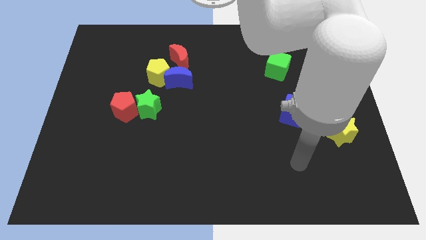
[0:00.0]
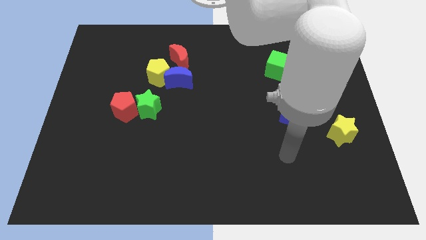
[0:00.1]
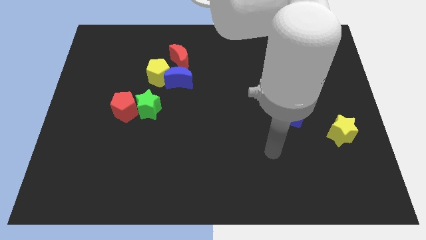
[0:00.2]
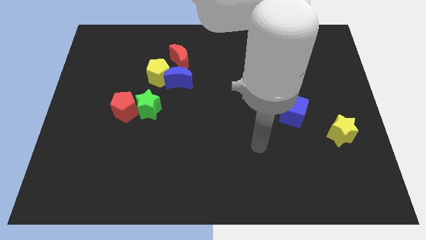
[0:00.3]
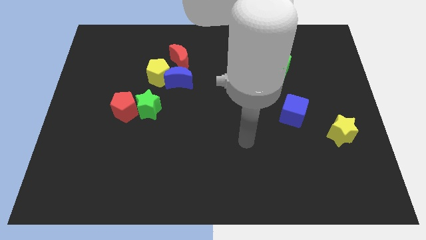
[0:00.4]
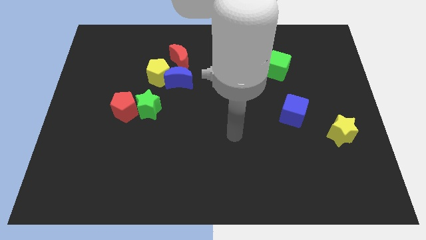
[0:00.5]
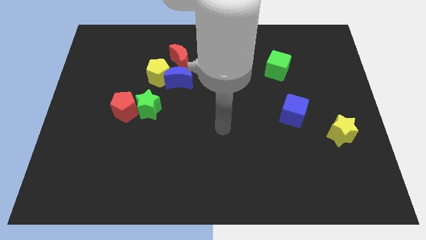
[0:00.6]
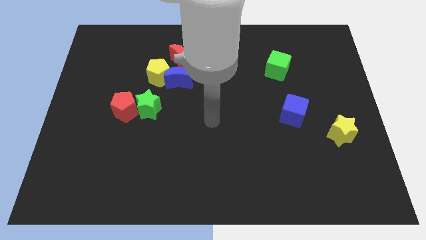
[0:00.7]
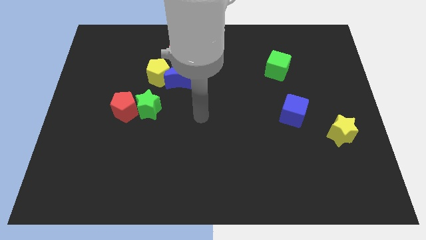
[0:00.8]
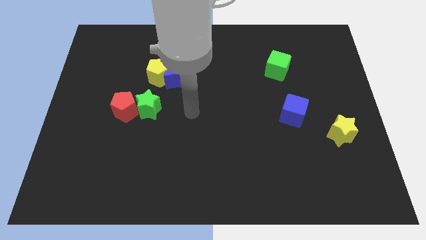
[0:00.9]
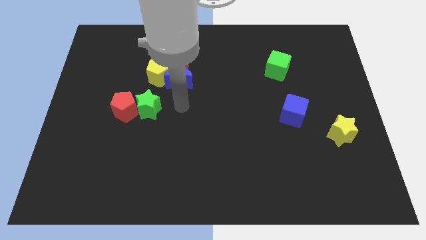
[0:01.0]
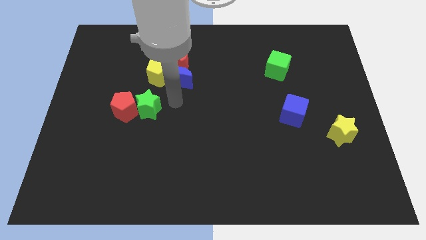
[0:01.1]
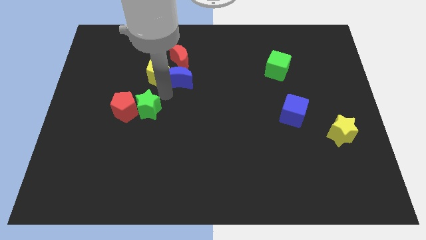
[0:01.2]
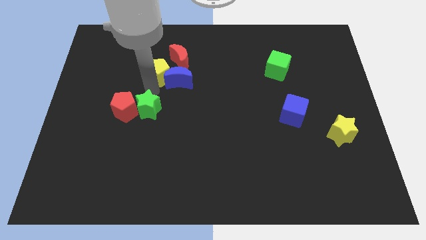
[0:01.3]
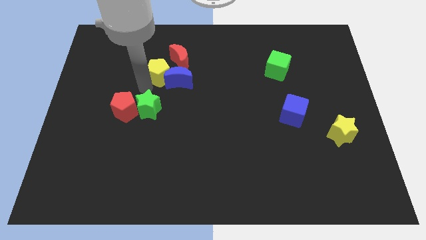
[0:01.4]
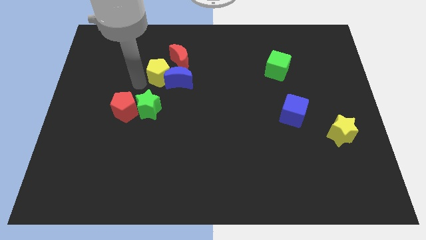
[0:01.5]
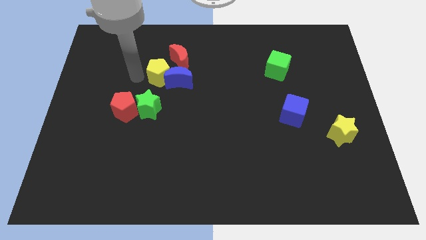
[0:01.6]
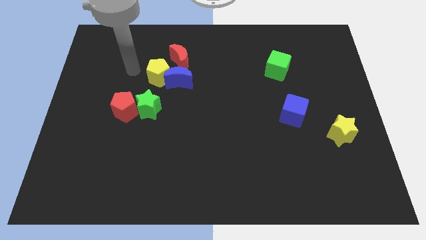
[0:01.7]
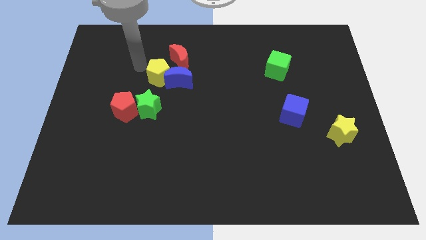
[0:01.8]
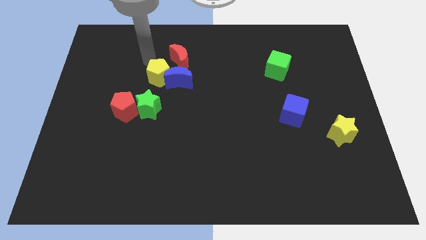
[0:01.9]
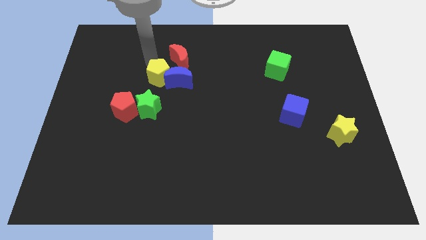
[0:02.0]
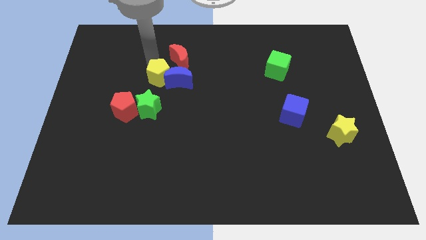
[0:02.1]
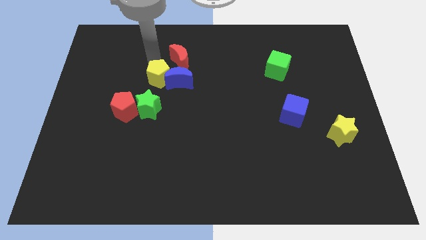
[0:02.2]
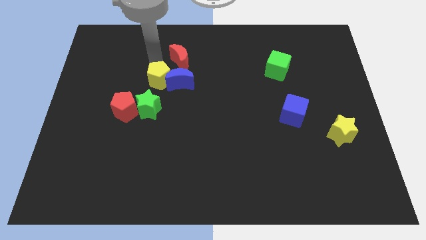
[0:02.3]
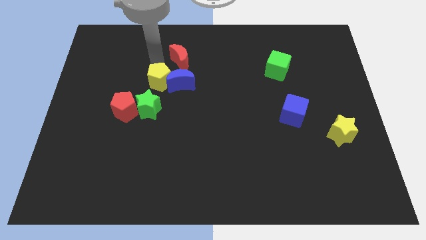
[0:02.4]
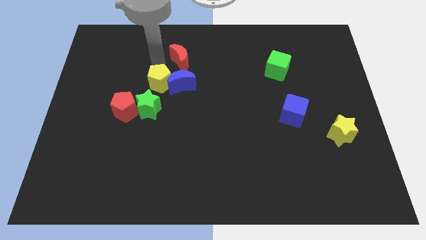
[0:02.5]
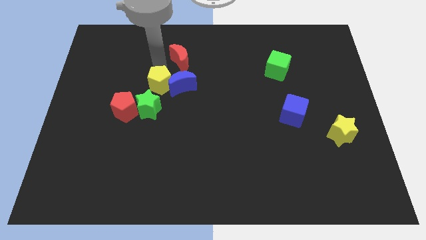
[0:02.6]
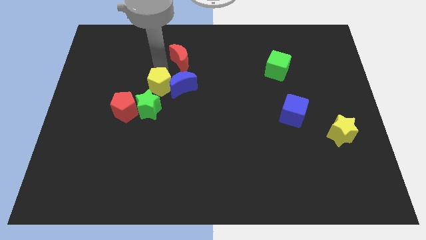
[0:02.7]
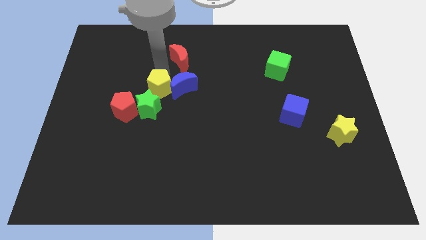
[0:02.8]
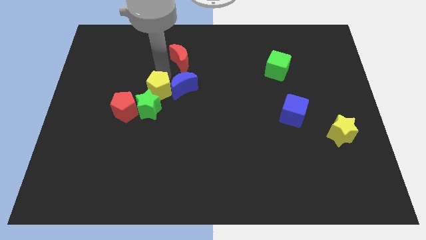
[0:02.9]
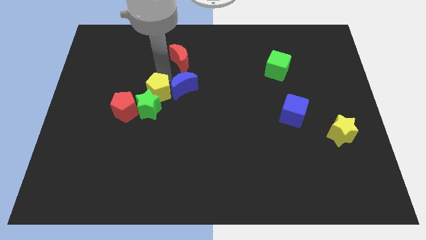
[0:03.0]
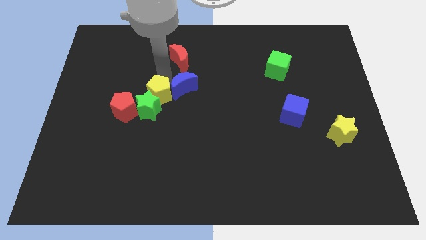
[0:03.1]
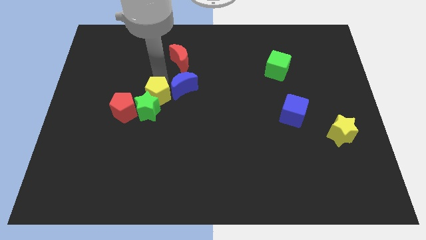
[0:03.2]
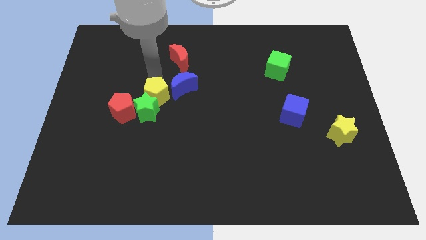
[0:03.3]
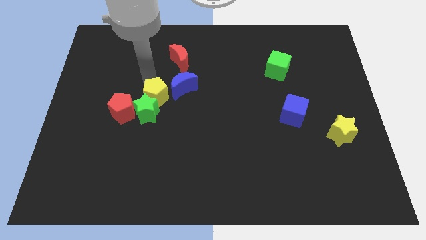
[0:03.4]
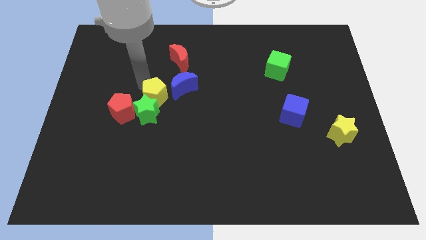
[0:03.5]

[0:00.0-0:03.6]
slide the yellow pentagon a little bit down

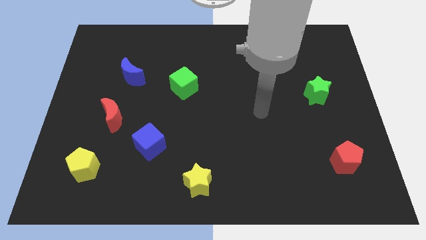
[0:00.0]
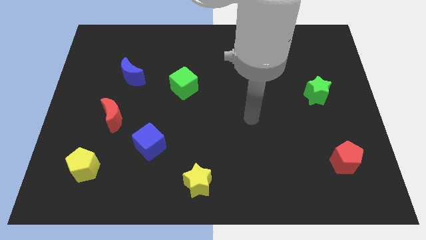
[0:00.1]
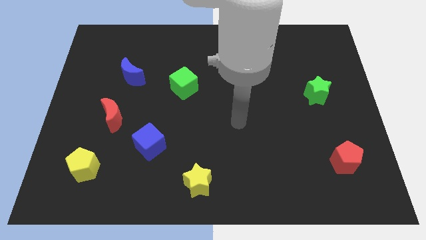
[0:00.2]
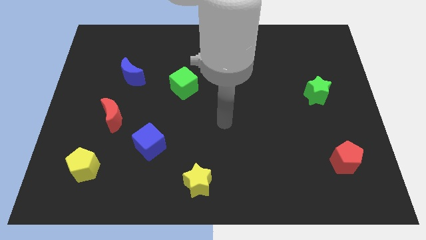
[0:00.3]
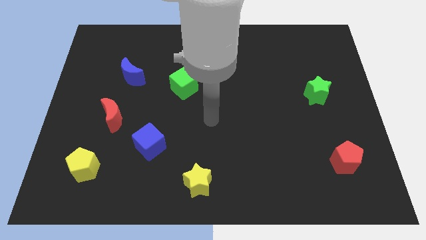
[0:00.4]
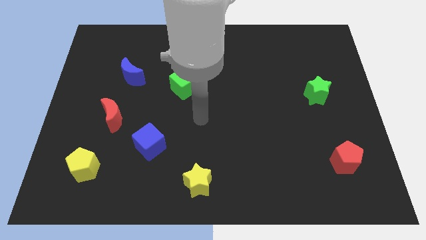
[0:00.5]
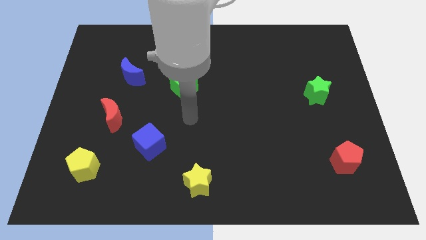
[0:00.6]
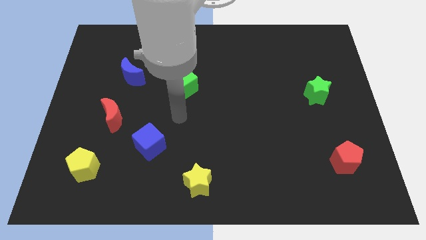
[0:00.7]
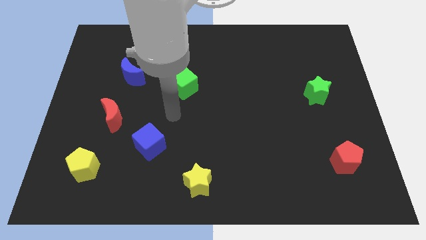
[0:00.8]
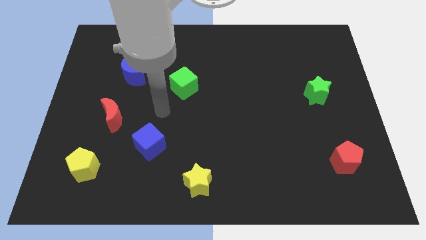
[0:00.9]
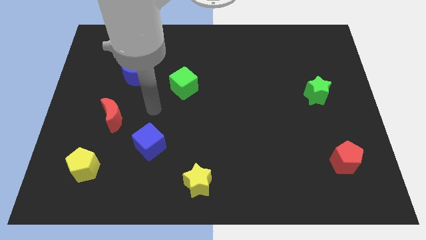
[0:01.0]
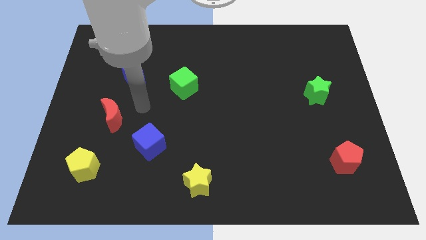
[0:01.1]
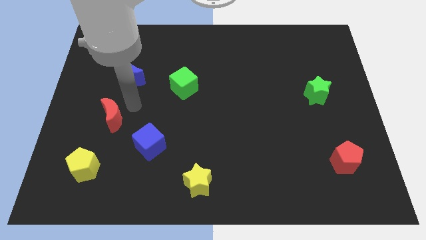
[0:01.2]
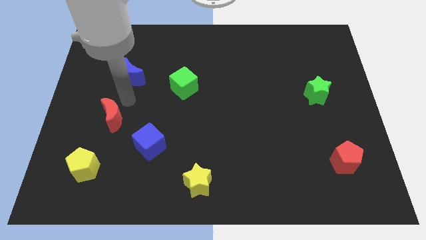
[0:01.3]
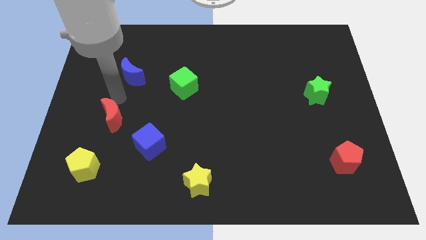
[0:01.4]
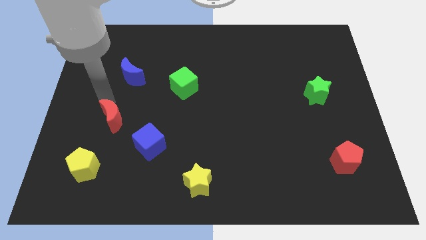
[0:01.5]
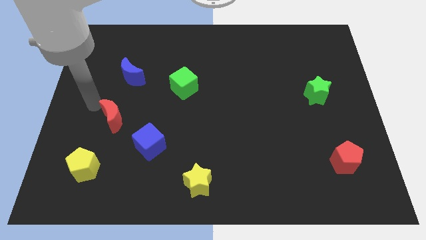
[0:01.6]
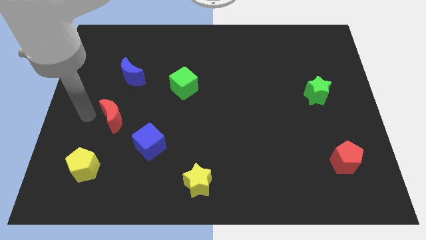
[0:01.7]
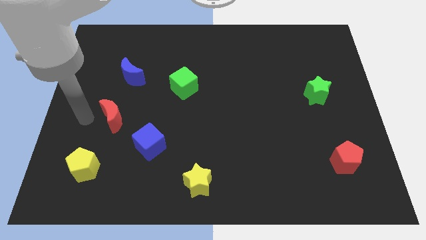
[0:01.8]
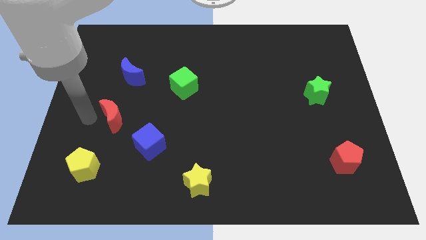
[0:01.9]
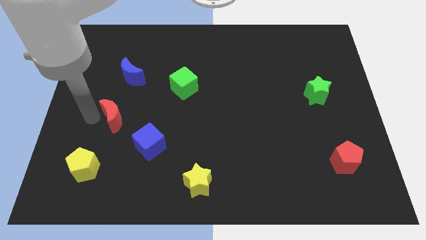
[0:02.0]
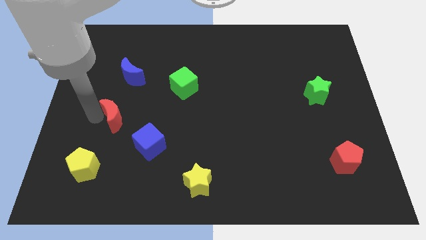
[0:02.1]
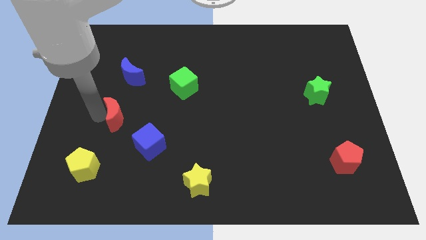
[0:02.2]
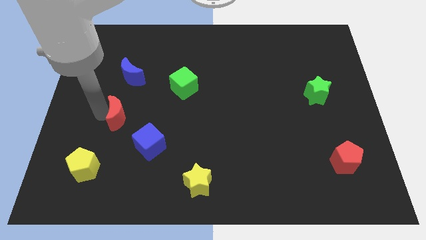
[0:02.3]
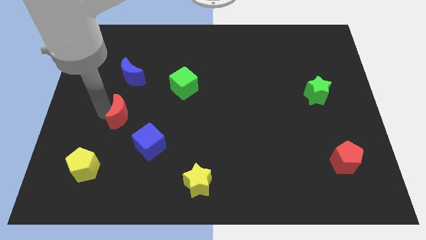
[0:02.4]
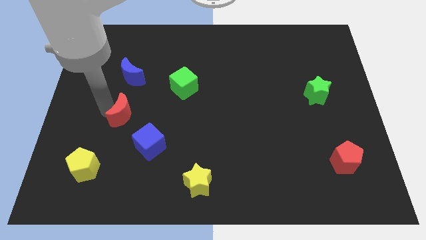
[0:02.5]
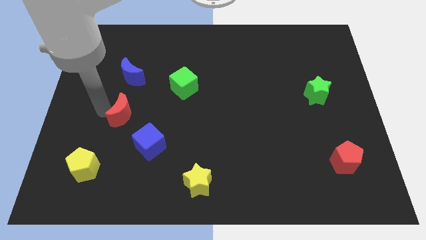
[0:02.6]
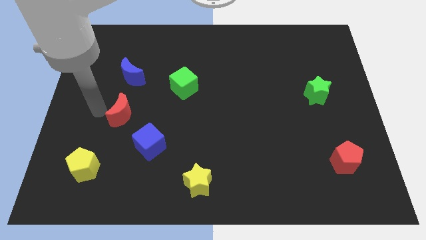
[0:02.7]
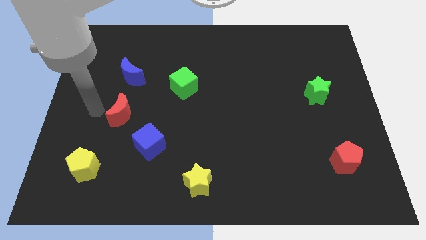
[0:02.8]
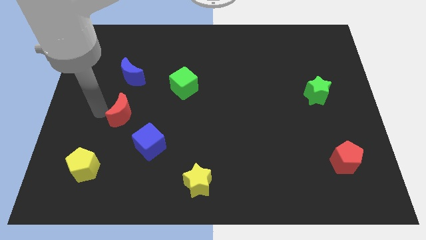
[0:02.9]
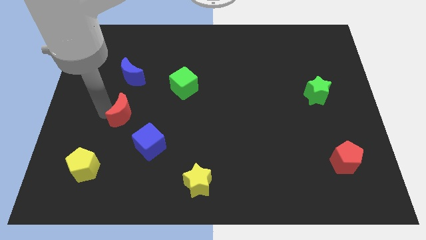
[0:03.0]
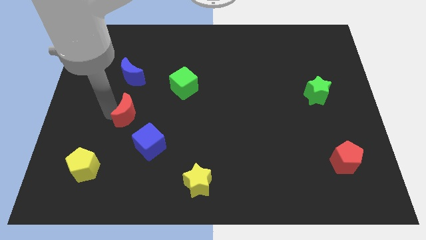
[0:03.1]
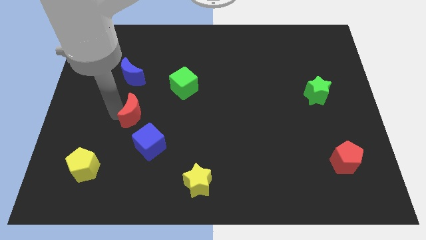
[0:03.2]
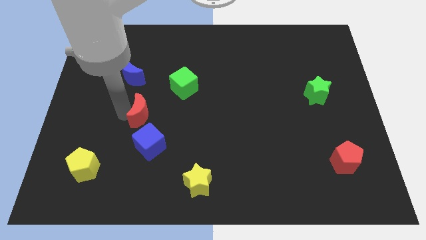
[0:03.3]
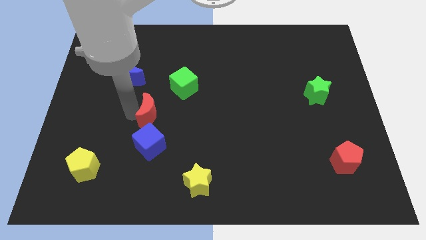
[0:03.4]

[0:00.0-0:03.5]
slightly slide the red moon right

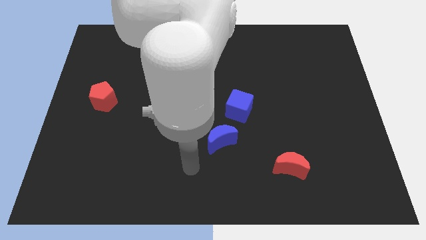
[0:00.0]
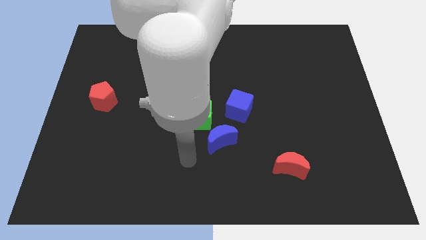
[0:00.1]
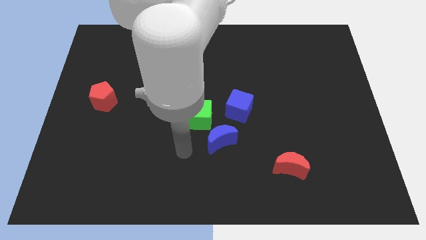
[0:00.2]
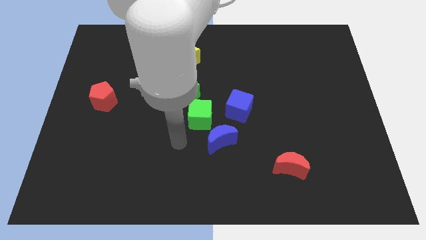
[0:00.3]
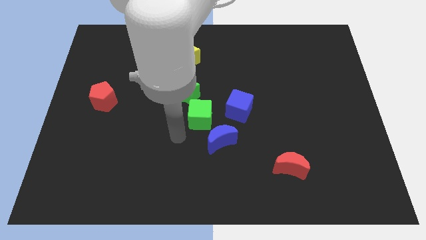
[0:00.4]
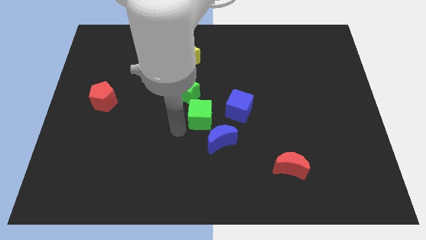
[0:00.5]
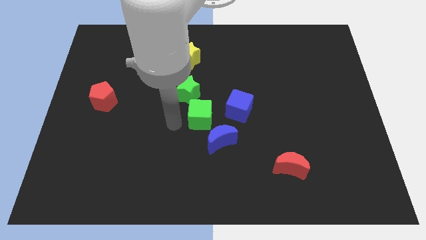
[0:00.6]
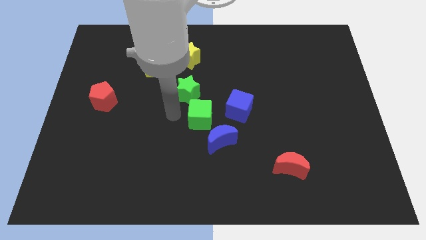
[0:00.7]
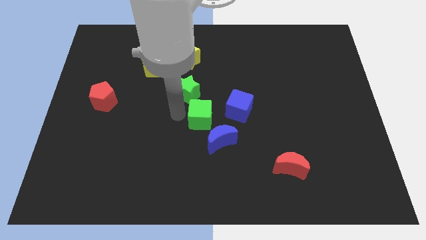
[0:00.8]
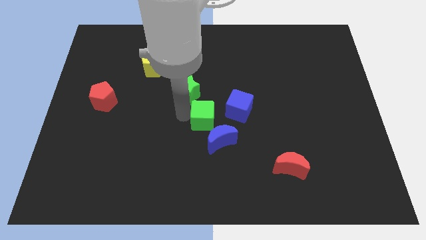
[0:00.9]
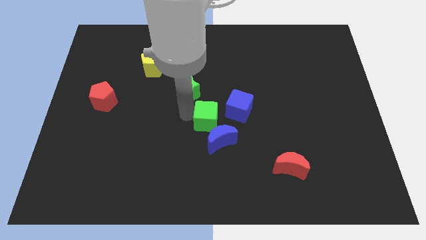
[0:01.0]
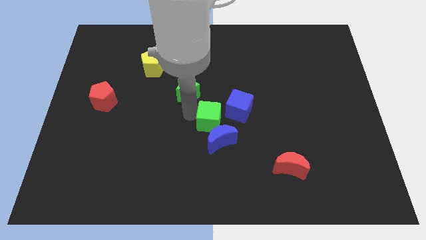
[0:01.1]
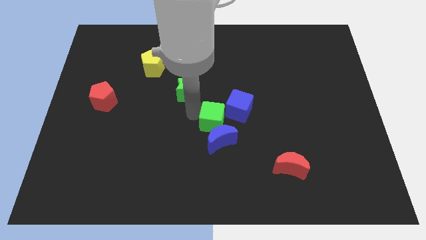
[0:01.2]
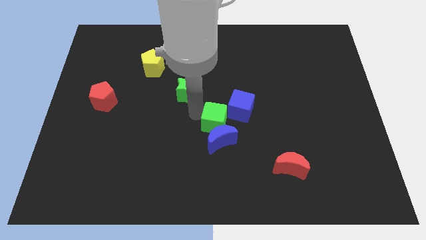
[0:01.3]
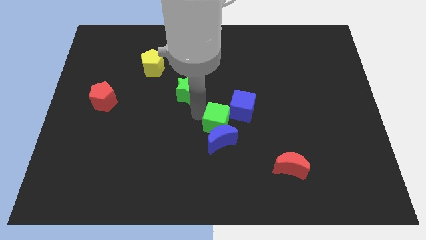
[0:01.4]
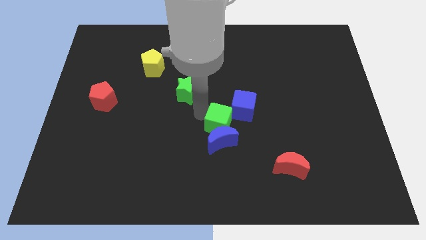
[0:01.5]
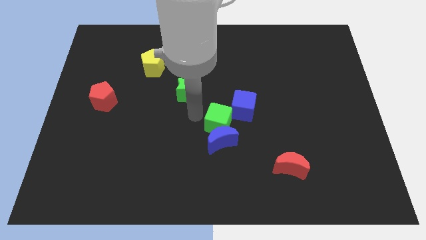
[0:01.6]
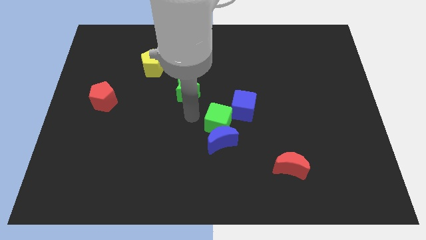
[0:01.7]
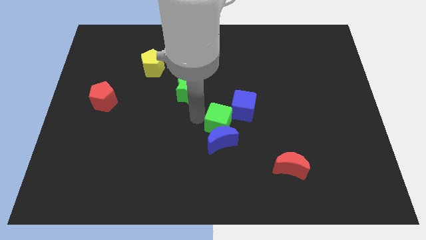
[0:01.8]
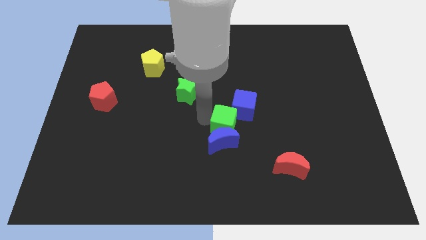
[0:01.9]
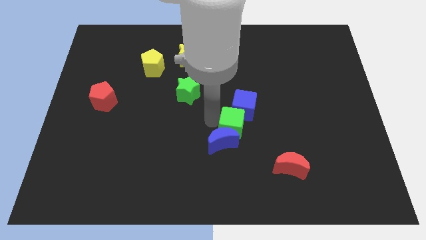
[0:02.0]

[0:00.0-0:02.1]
slightly push the green cube to the right
